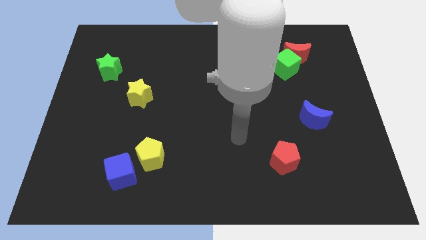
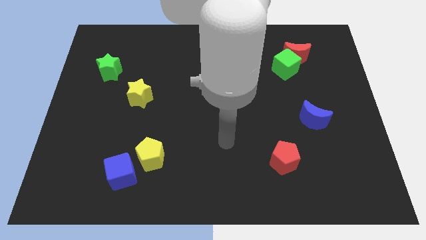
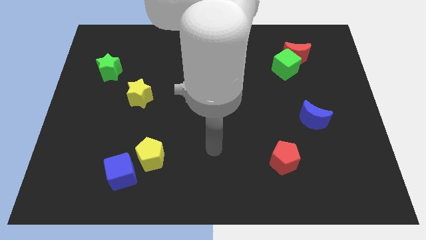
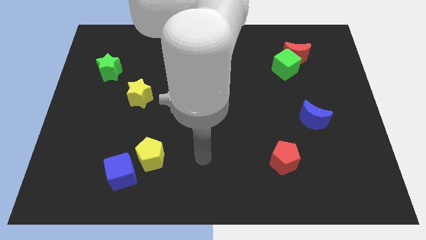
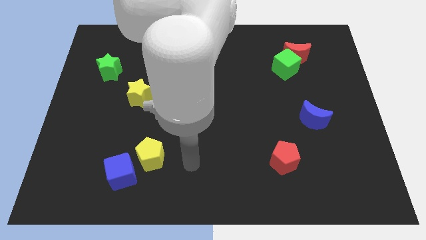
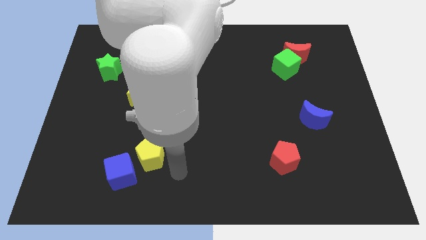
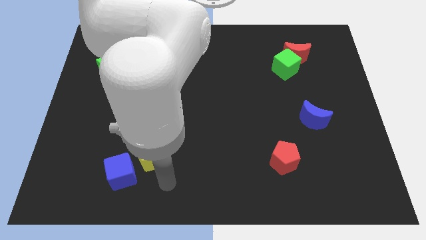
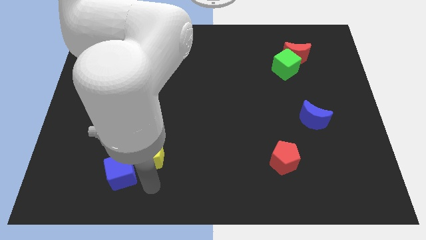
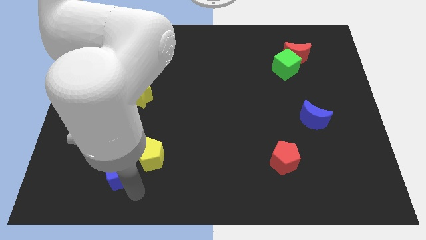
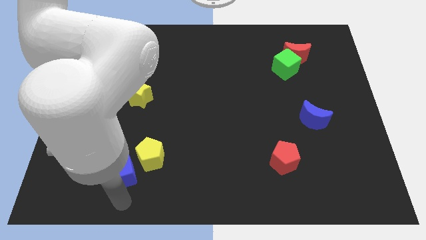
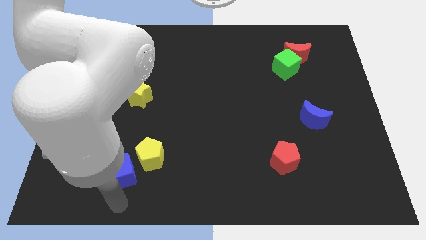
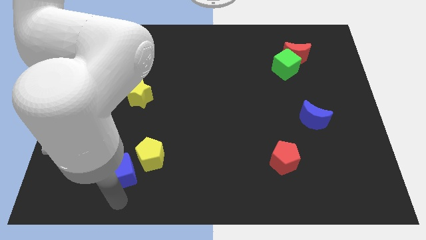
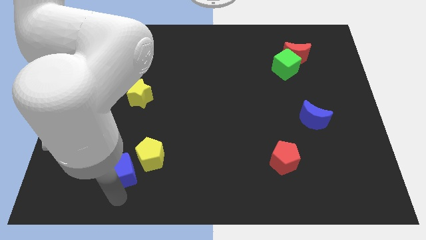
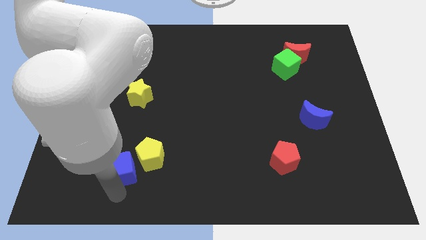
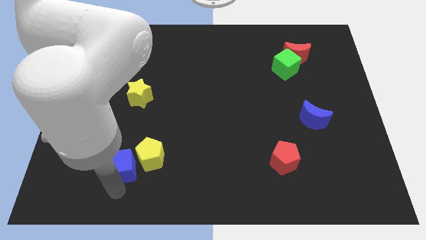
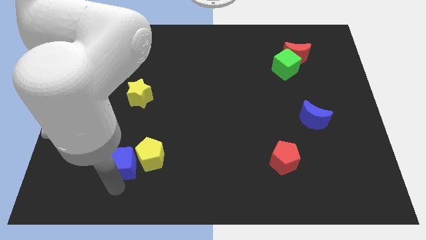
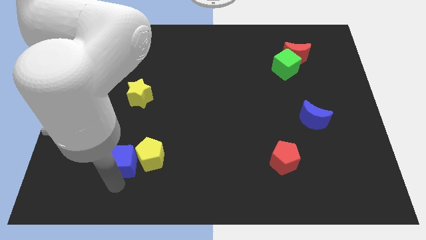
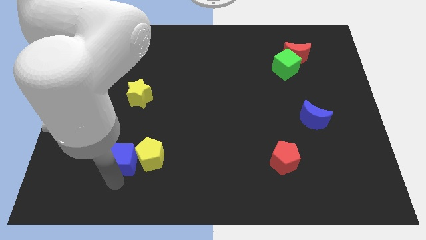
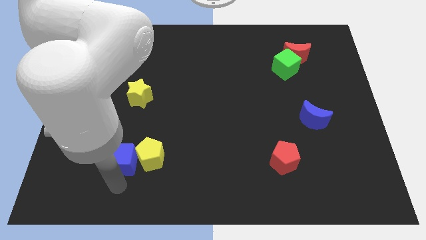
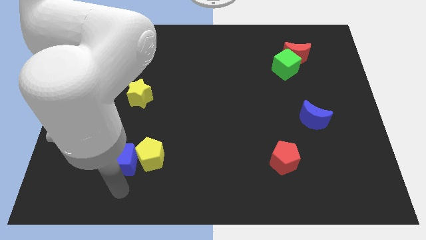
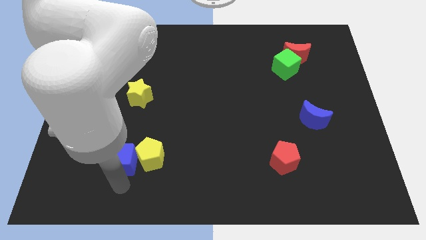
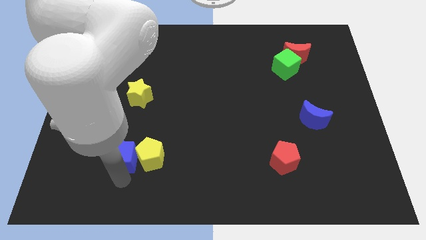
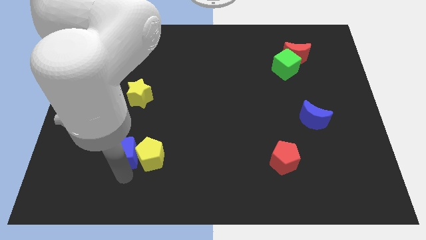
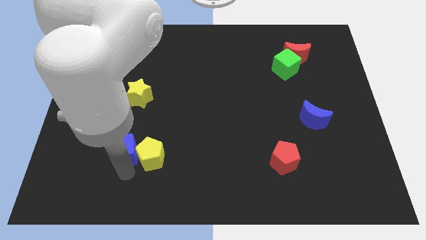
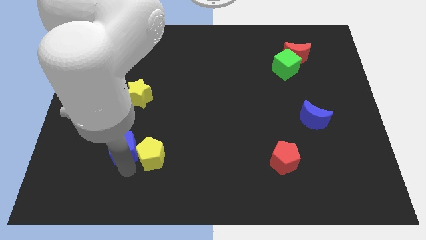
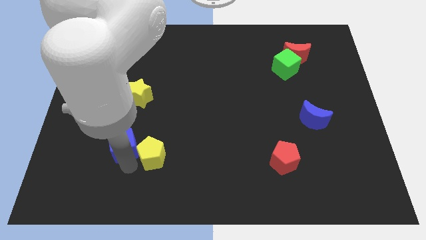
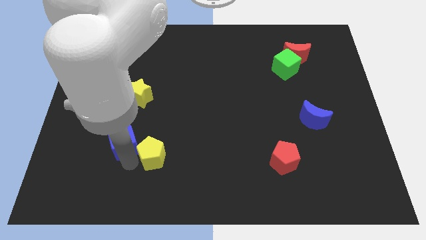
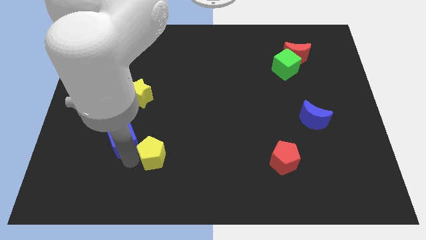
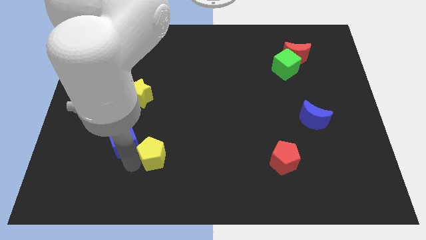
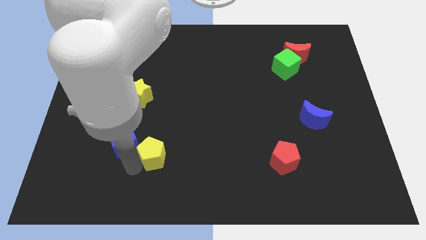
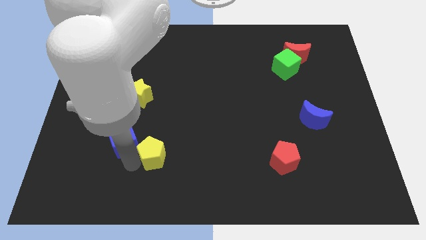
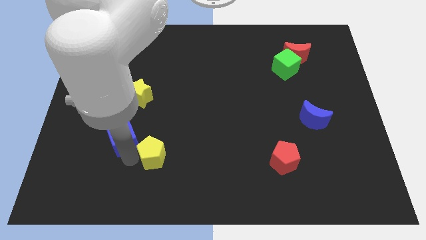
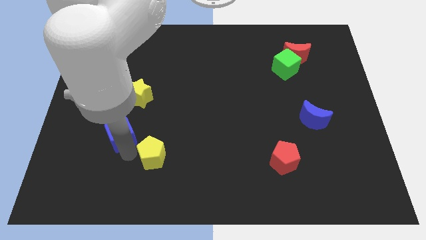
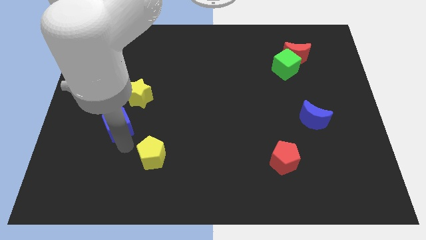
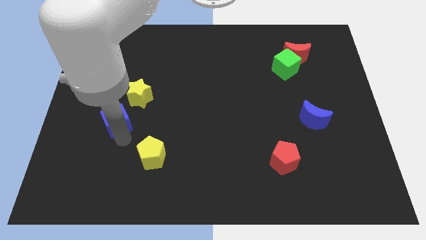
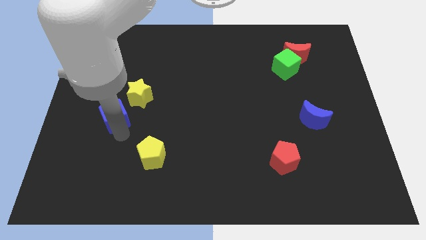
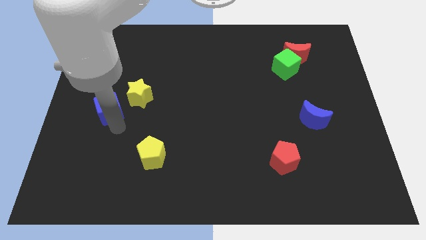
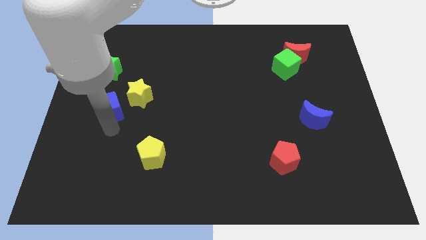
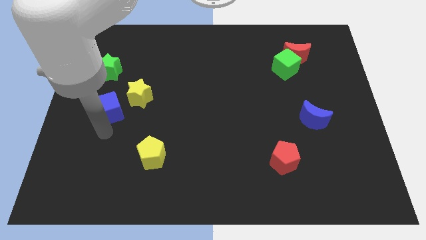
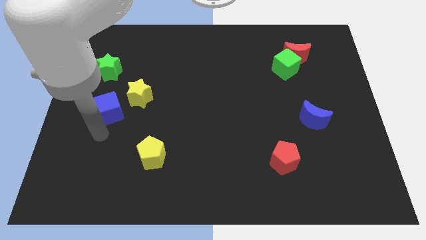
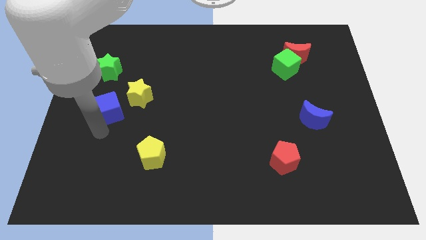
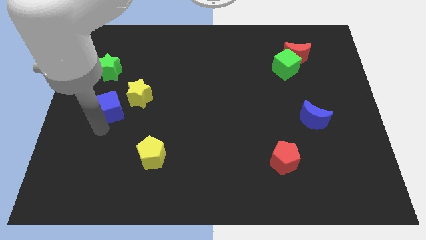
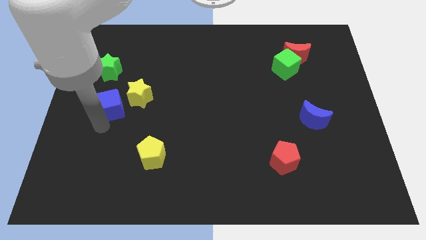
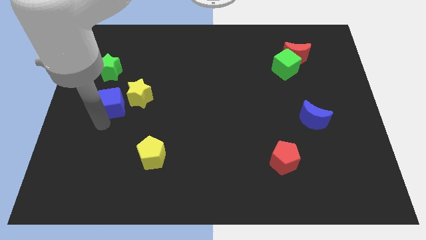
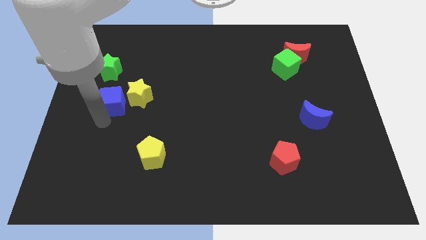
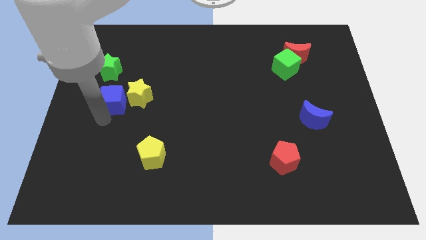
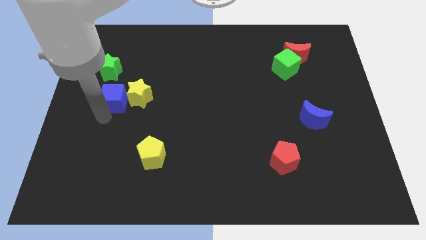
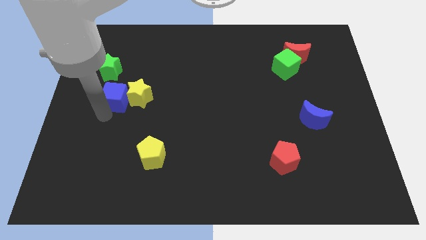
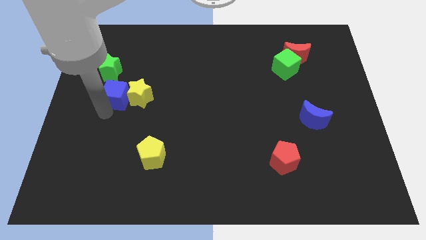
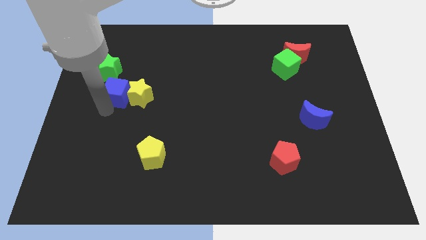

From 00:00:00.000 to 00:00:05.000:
push the blue cube upwards

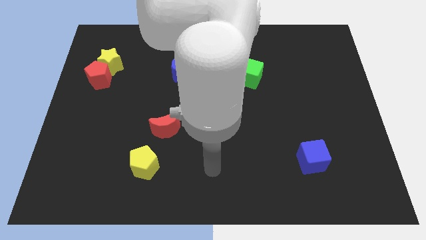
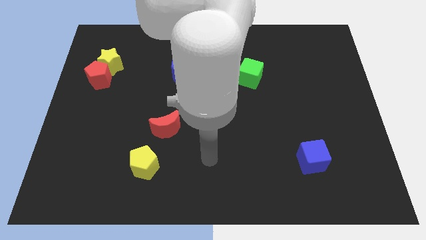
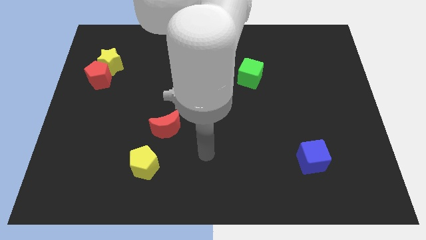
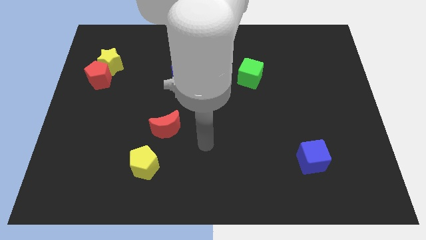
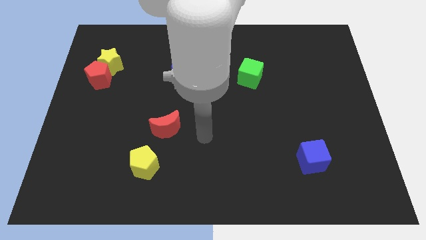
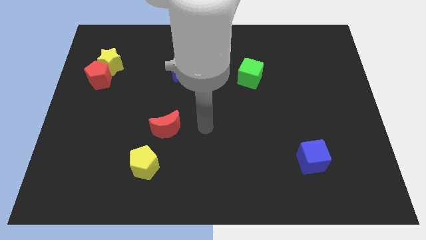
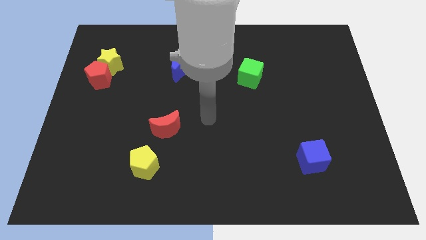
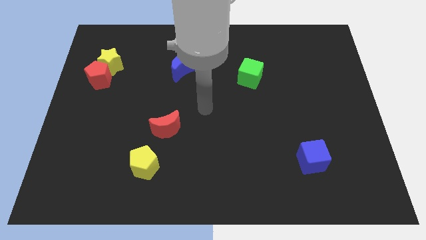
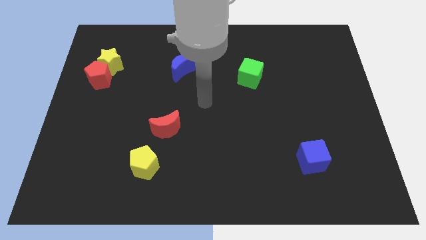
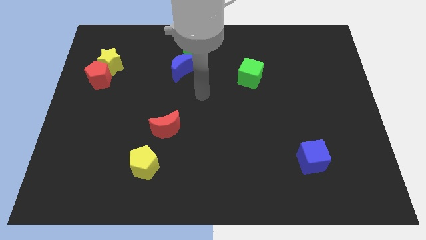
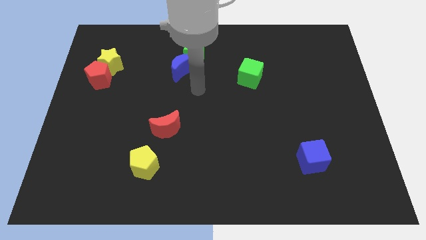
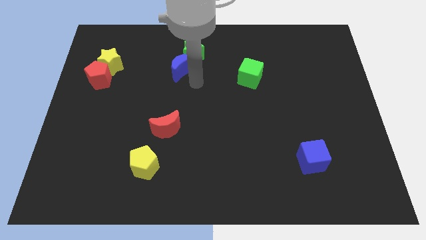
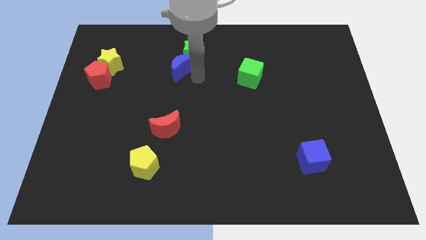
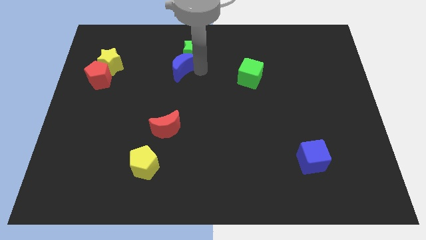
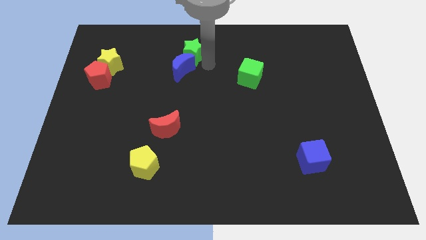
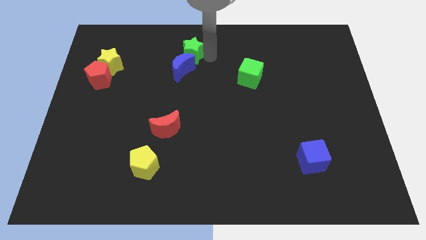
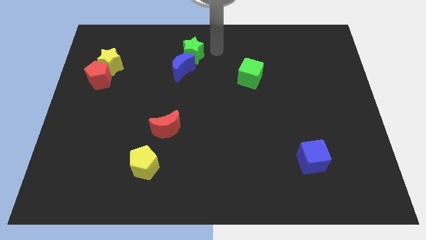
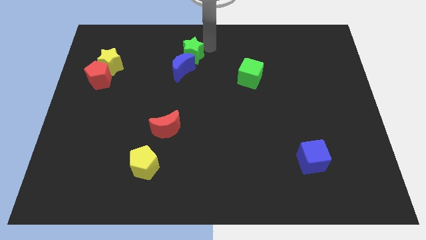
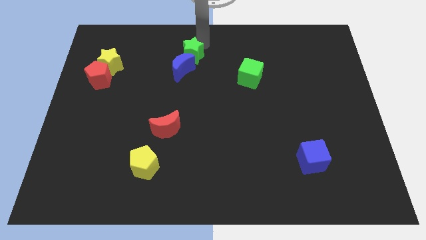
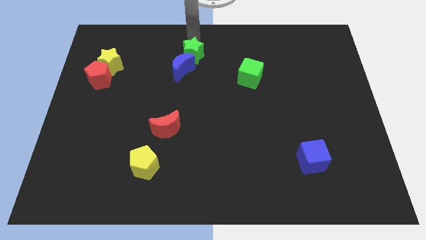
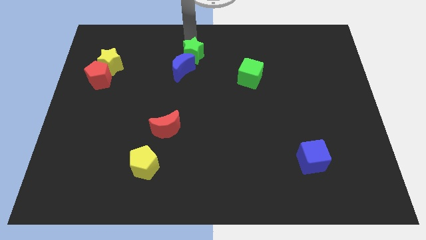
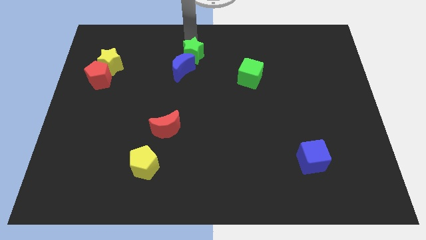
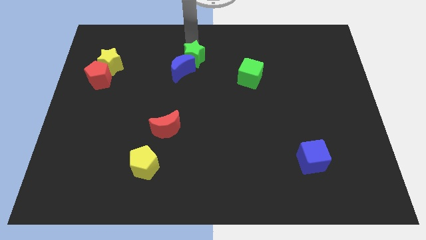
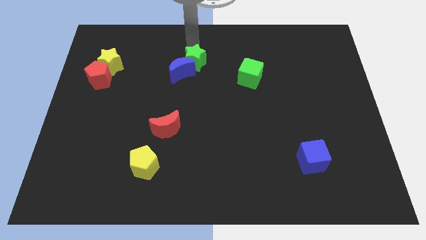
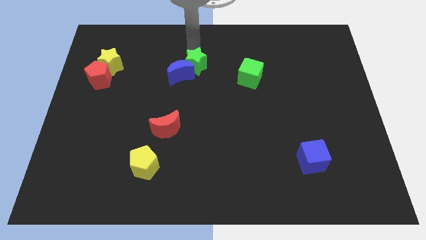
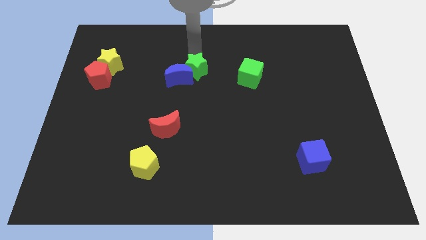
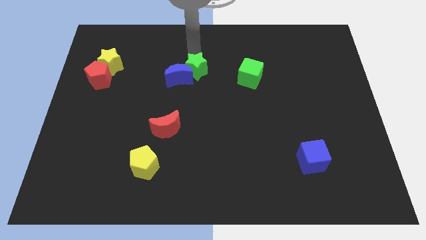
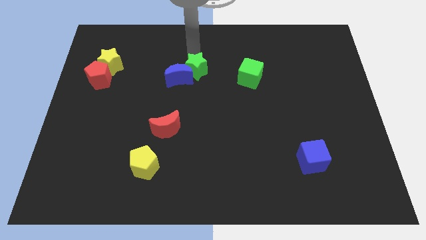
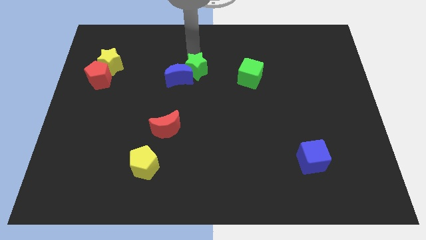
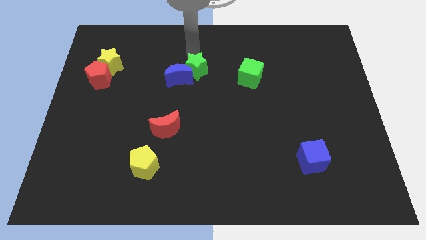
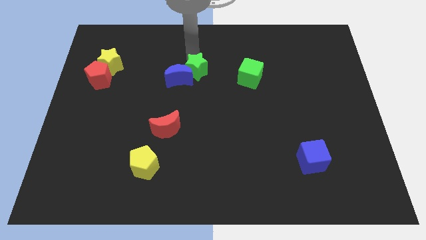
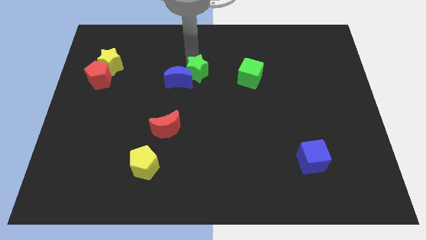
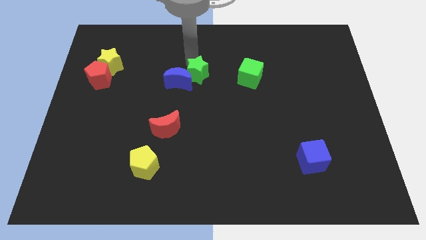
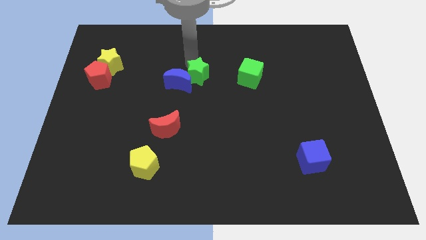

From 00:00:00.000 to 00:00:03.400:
slide the green star somewhat down
